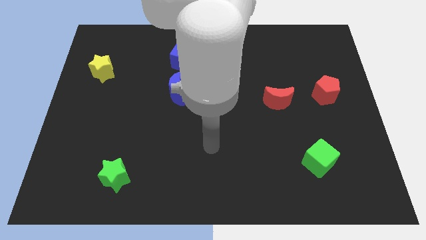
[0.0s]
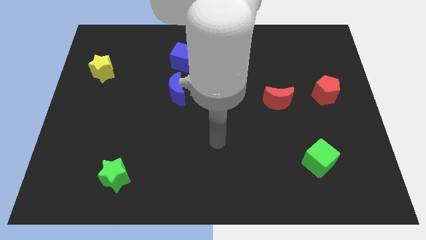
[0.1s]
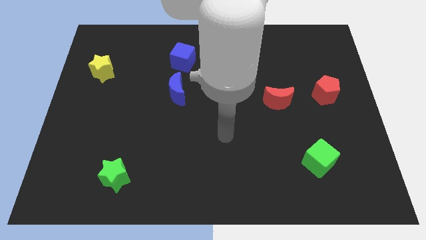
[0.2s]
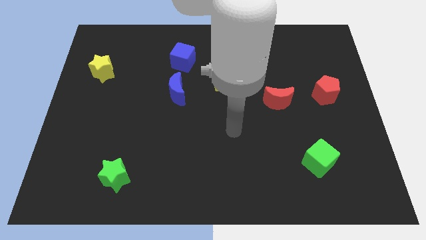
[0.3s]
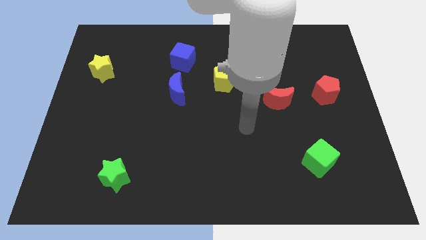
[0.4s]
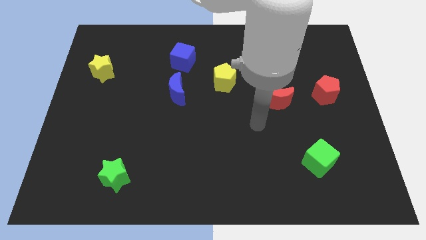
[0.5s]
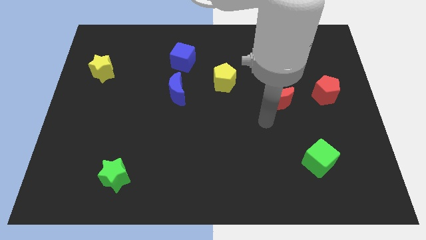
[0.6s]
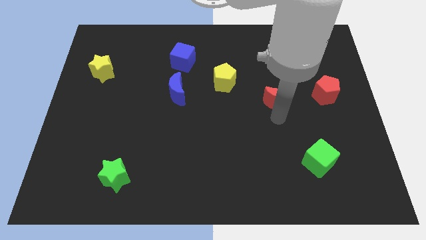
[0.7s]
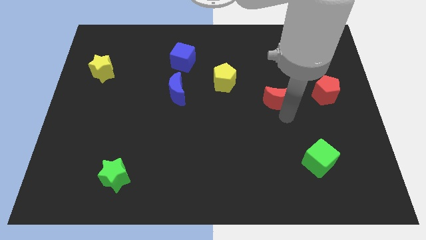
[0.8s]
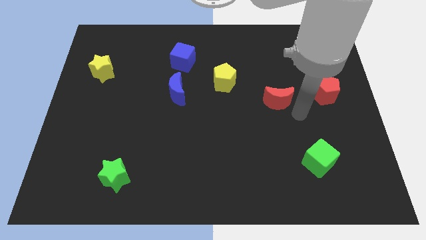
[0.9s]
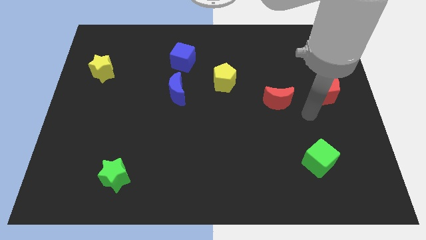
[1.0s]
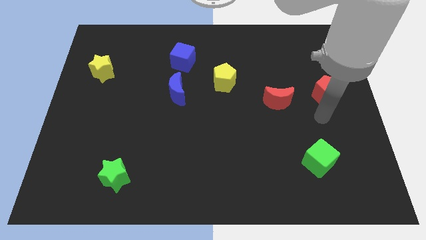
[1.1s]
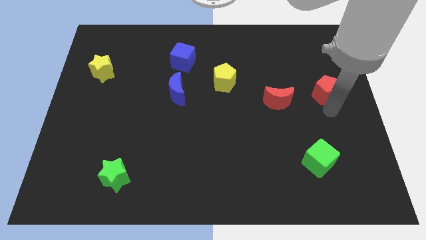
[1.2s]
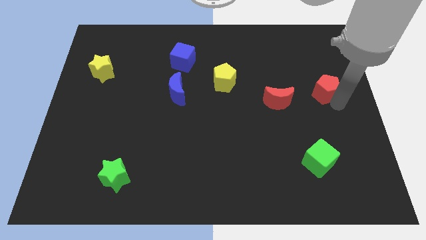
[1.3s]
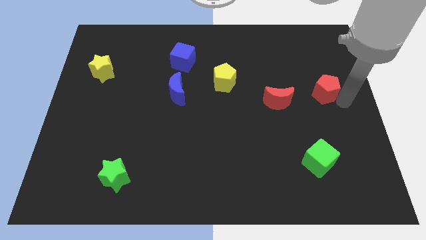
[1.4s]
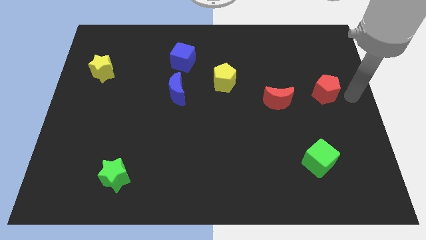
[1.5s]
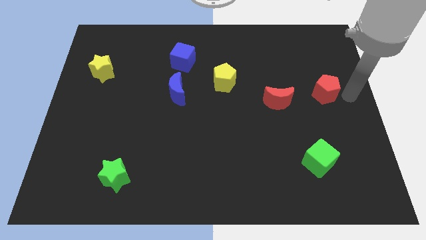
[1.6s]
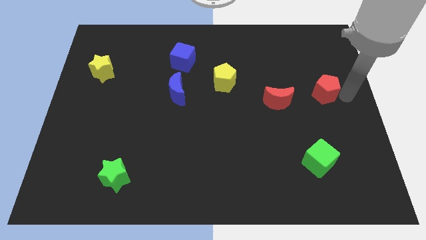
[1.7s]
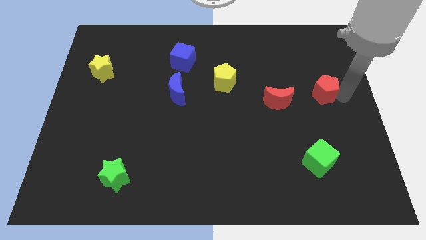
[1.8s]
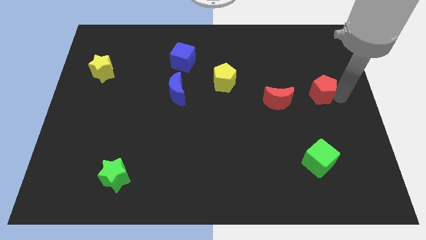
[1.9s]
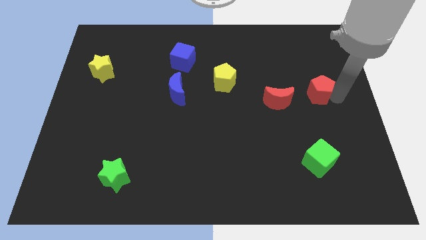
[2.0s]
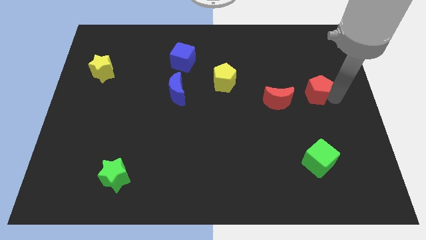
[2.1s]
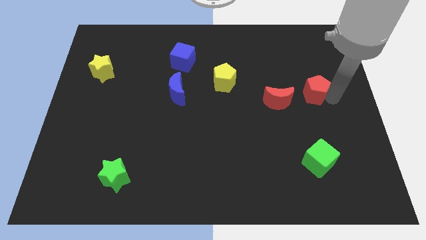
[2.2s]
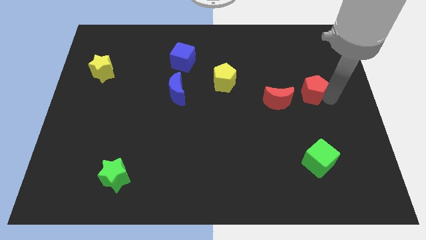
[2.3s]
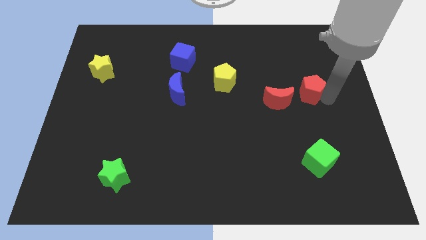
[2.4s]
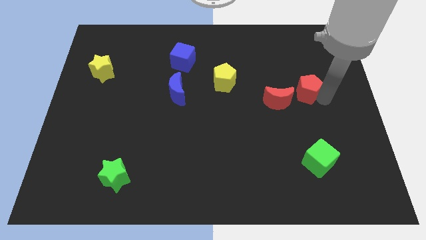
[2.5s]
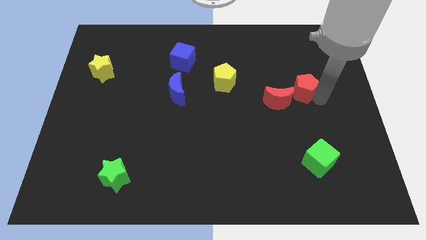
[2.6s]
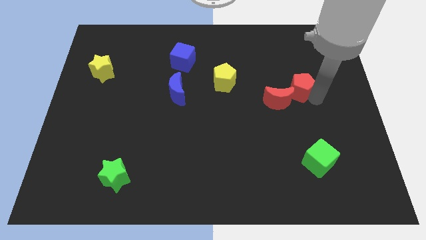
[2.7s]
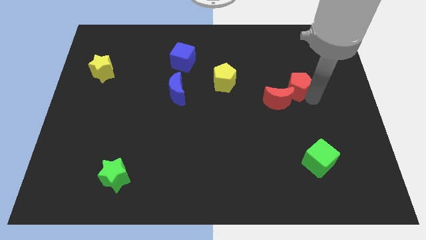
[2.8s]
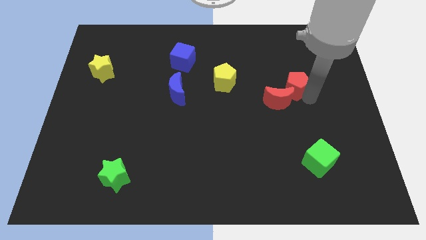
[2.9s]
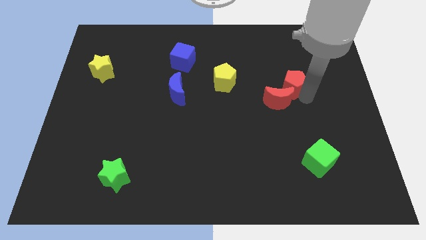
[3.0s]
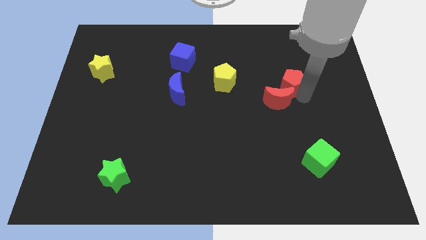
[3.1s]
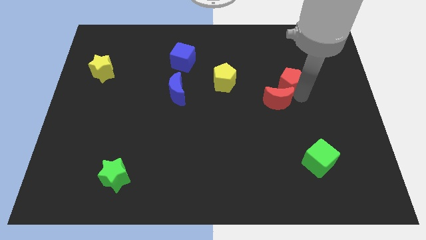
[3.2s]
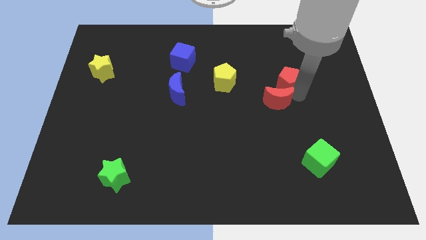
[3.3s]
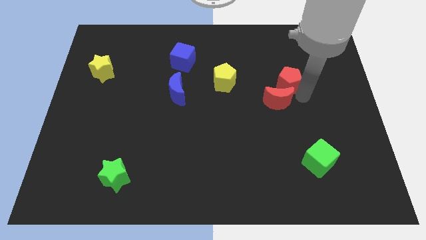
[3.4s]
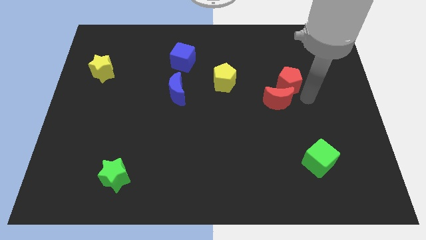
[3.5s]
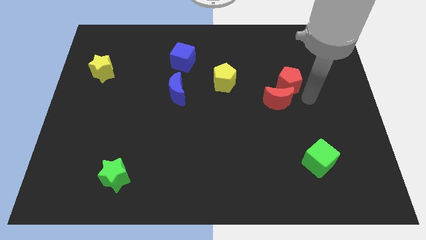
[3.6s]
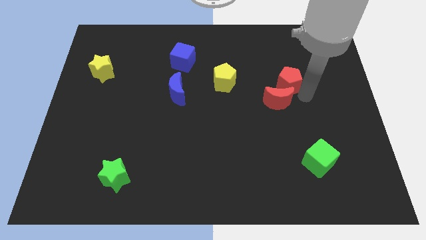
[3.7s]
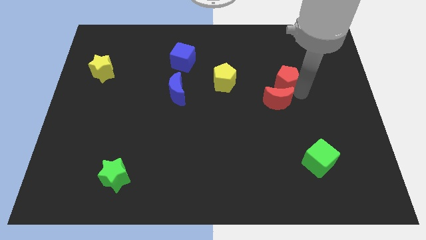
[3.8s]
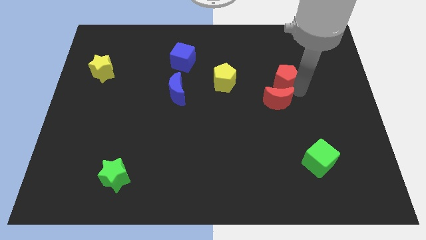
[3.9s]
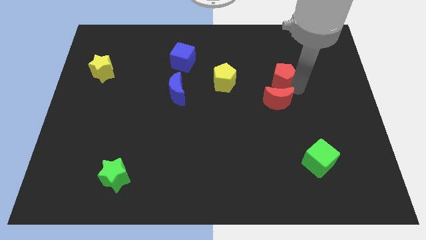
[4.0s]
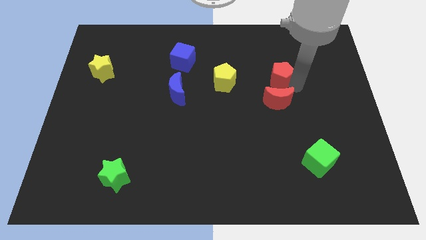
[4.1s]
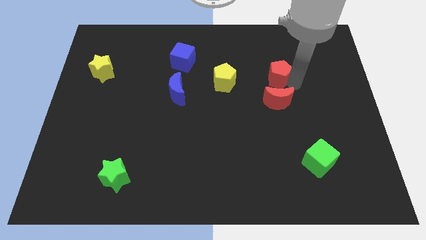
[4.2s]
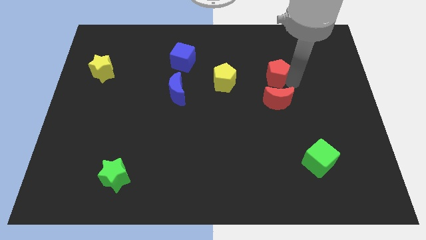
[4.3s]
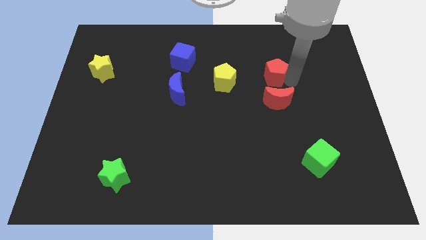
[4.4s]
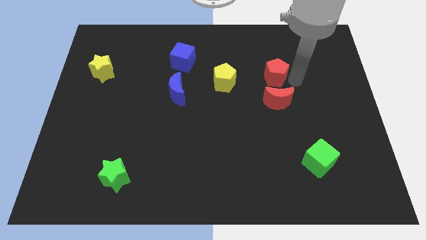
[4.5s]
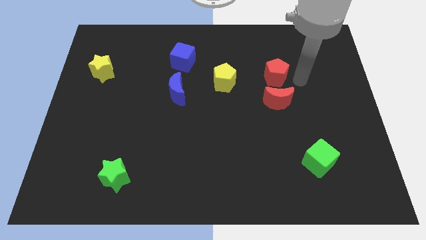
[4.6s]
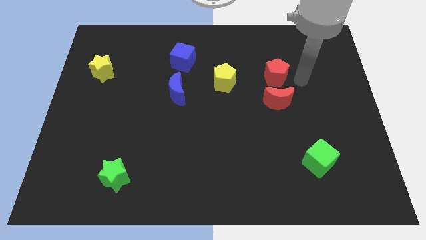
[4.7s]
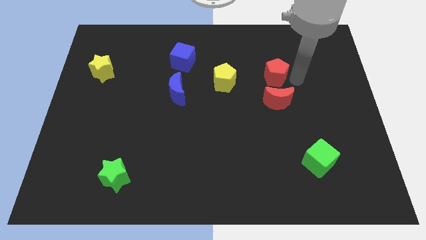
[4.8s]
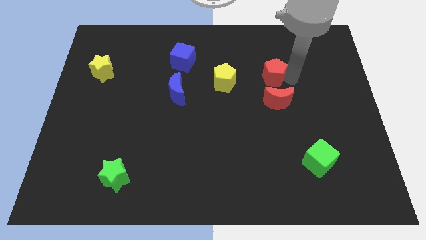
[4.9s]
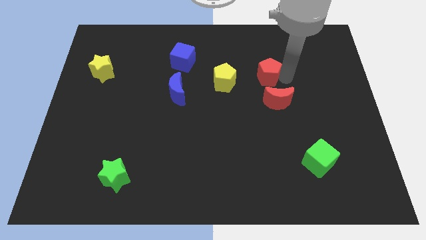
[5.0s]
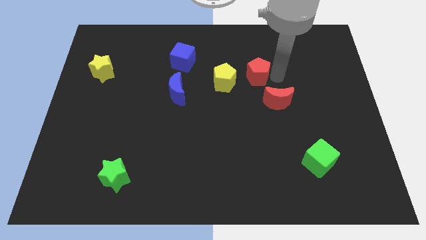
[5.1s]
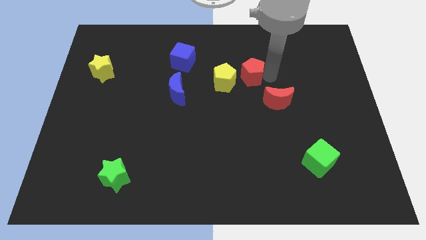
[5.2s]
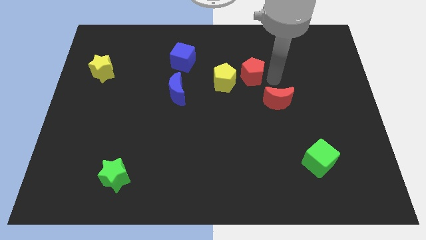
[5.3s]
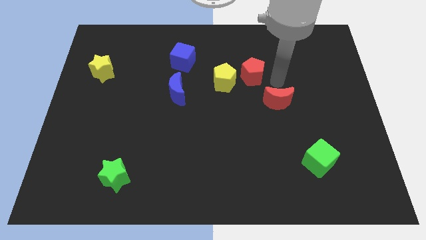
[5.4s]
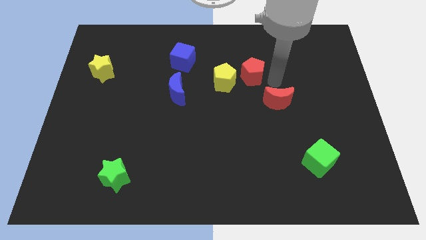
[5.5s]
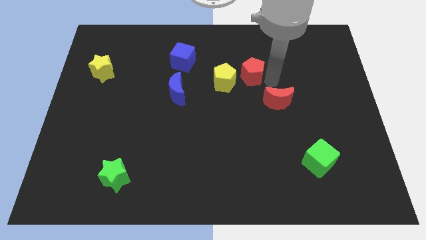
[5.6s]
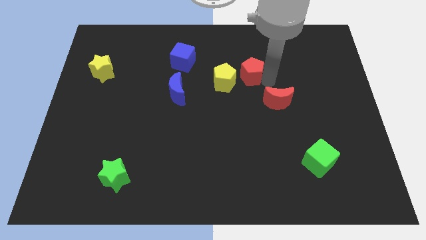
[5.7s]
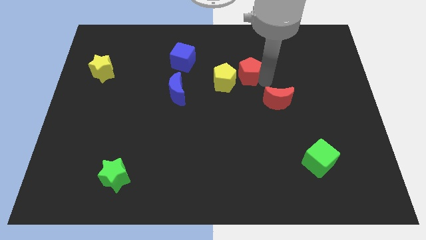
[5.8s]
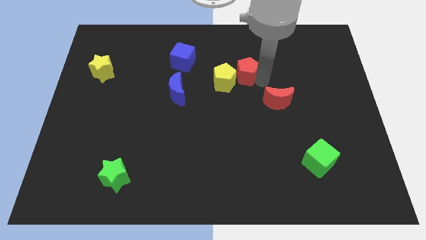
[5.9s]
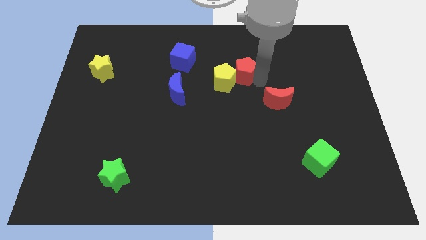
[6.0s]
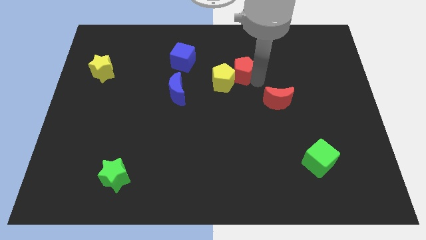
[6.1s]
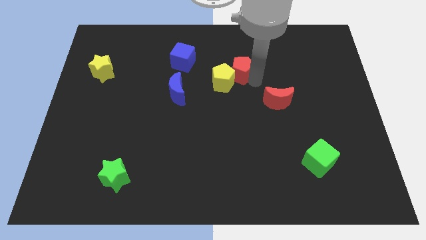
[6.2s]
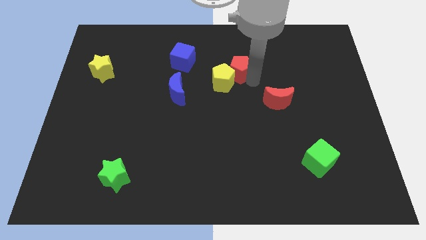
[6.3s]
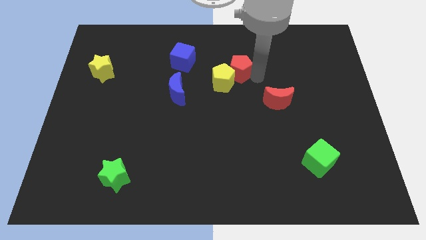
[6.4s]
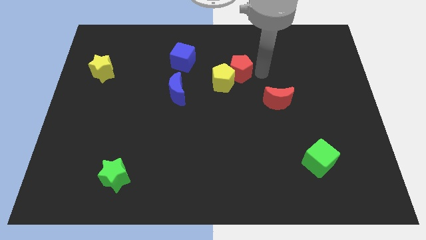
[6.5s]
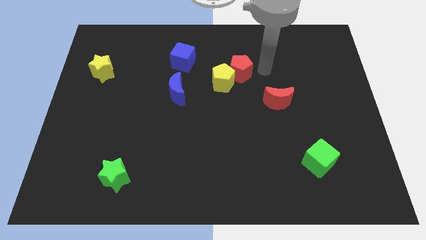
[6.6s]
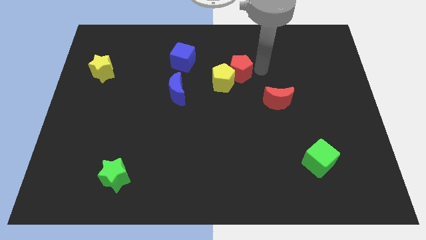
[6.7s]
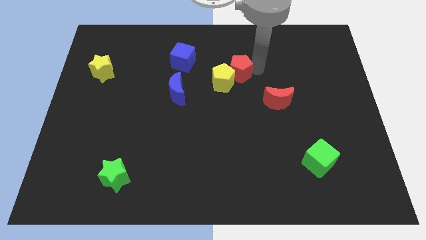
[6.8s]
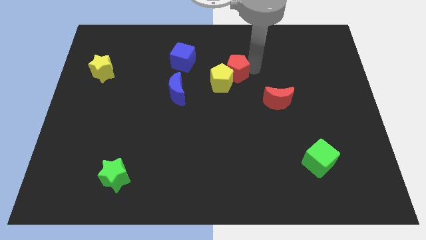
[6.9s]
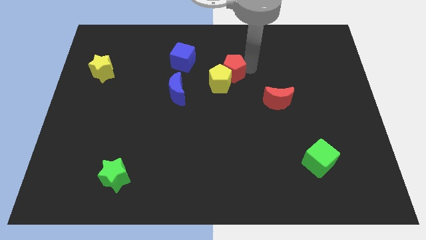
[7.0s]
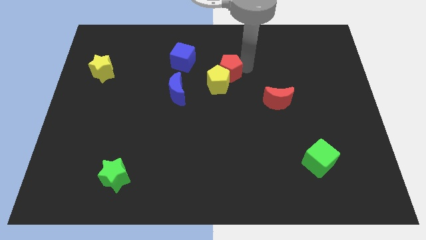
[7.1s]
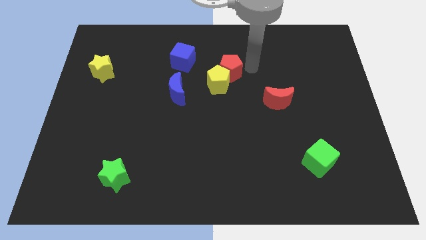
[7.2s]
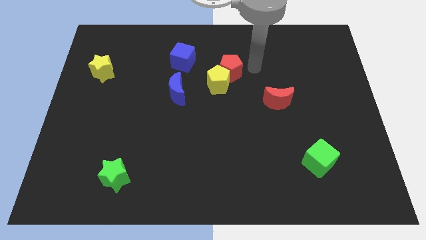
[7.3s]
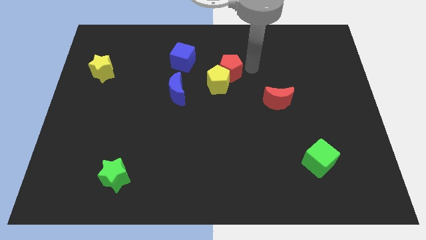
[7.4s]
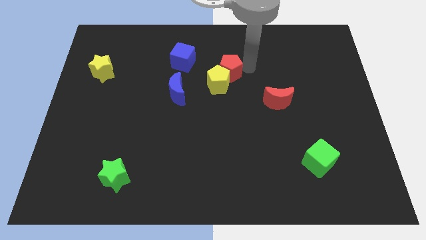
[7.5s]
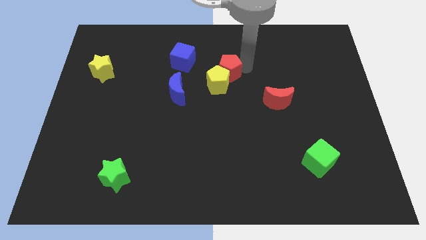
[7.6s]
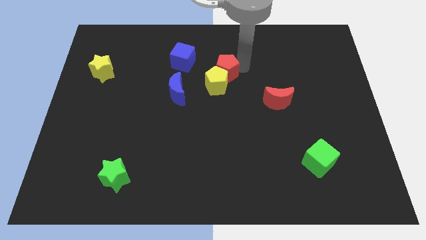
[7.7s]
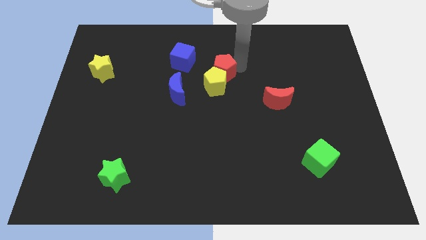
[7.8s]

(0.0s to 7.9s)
move the red pentagon to the bottom right of the blue cube
